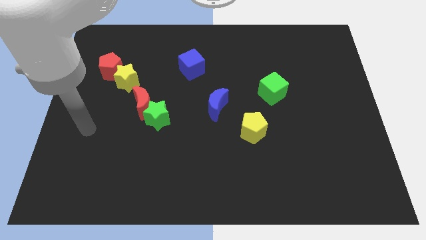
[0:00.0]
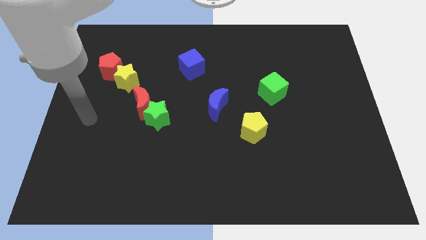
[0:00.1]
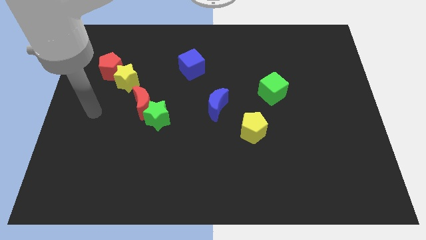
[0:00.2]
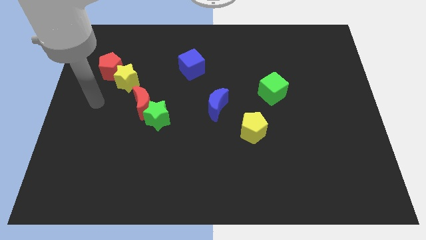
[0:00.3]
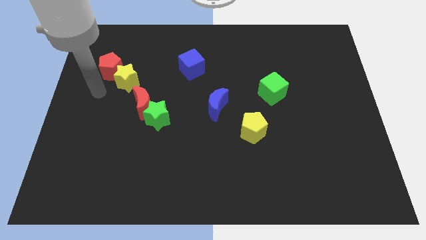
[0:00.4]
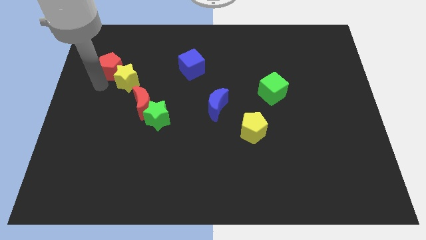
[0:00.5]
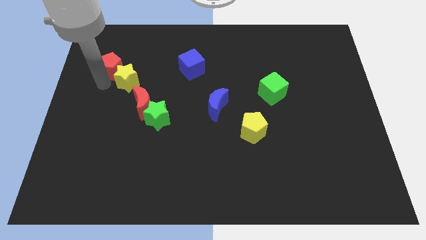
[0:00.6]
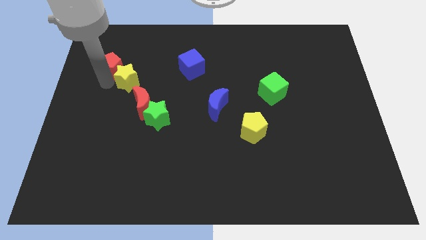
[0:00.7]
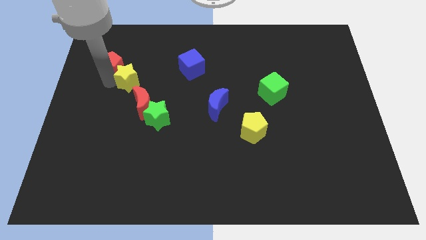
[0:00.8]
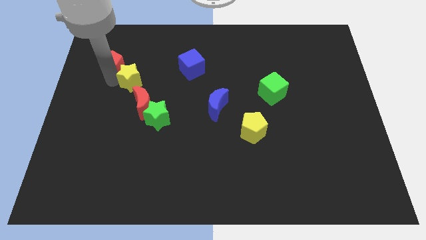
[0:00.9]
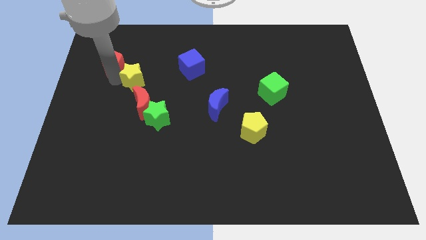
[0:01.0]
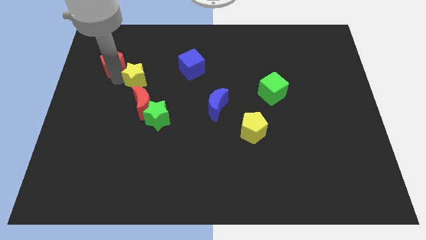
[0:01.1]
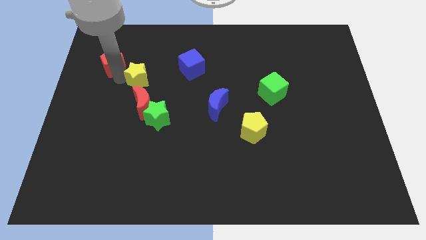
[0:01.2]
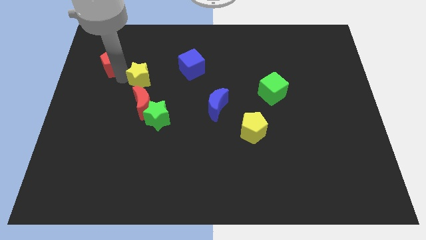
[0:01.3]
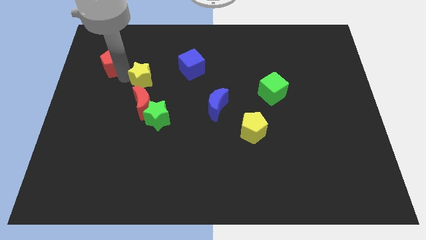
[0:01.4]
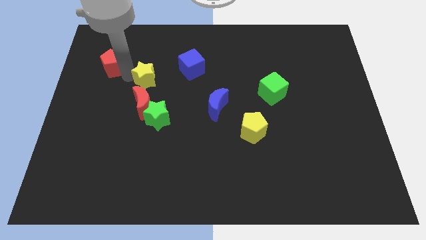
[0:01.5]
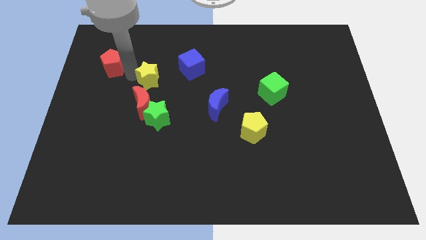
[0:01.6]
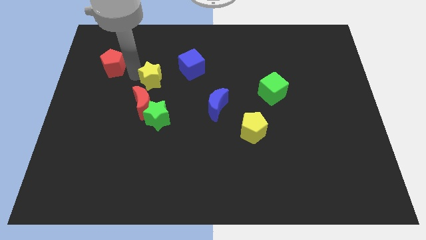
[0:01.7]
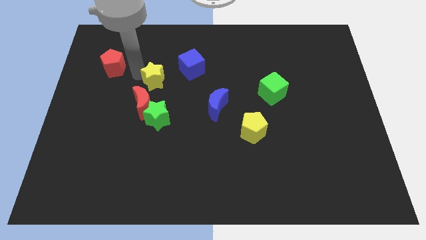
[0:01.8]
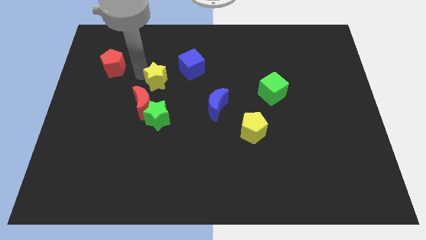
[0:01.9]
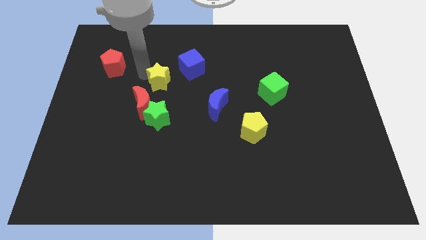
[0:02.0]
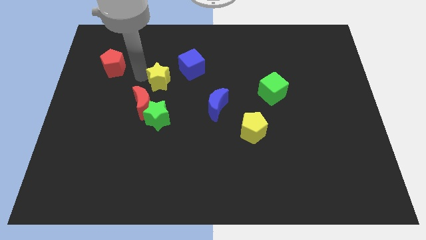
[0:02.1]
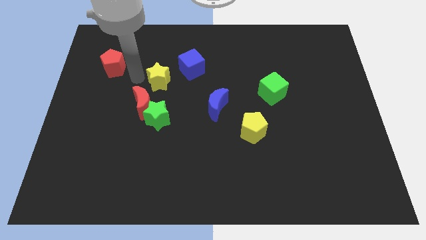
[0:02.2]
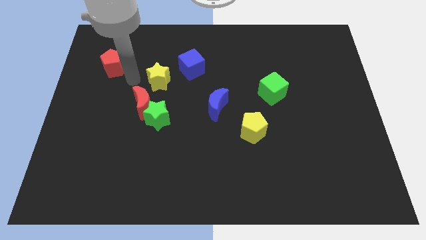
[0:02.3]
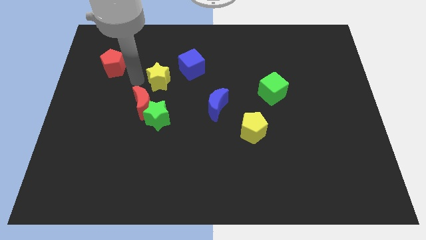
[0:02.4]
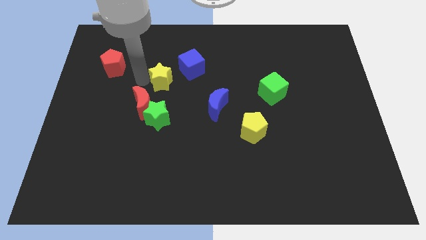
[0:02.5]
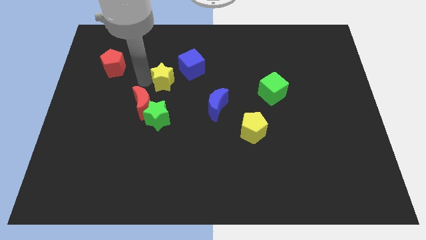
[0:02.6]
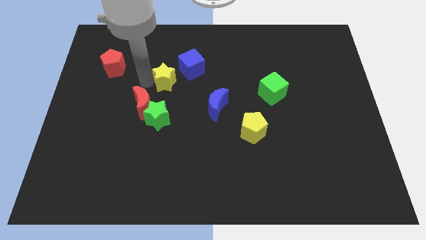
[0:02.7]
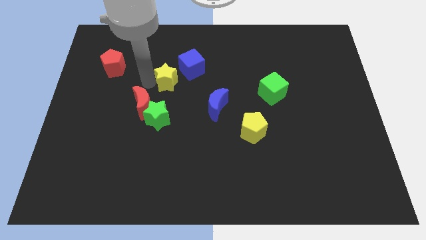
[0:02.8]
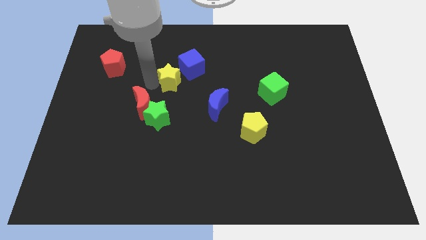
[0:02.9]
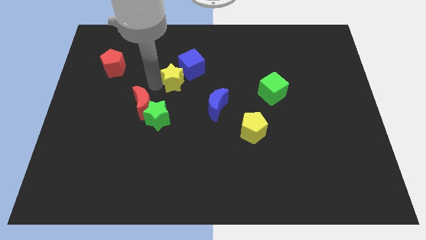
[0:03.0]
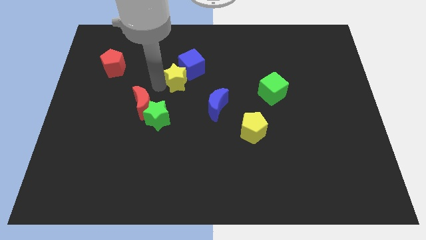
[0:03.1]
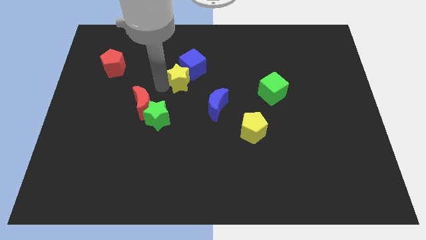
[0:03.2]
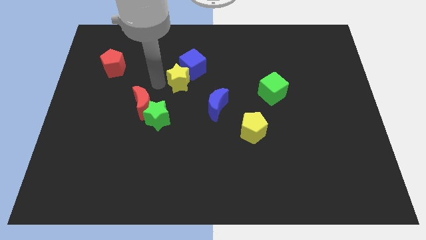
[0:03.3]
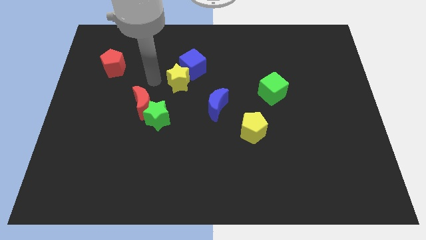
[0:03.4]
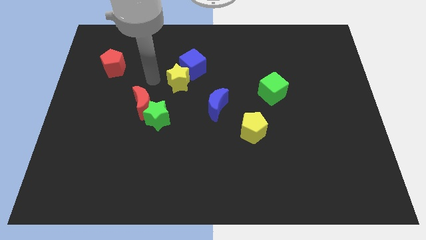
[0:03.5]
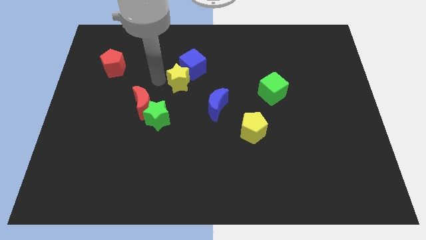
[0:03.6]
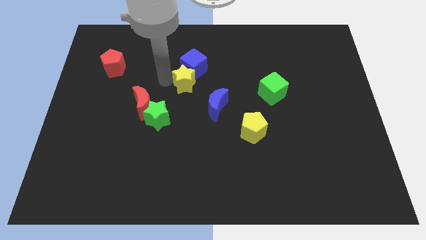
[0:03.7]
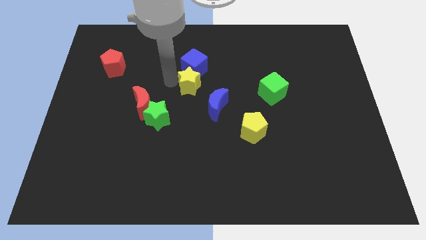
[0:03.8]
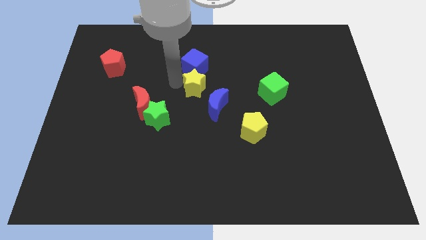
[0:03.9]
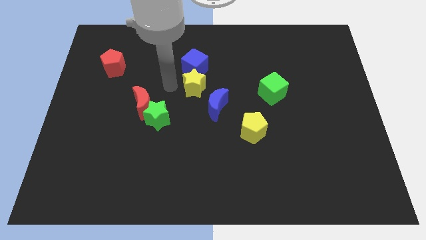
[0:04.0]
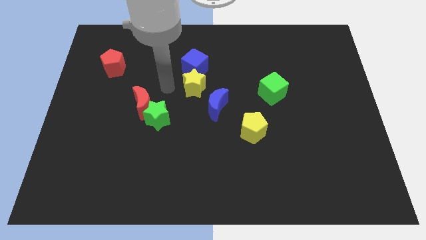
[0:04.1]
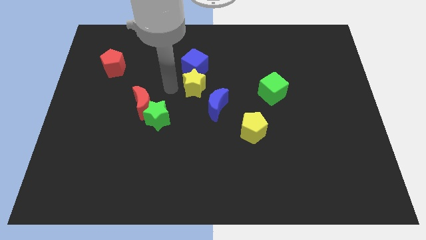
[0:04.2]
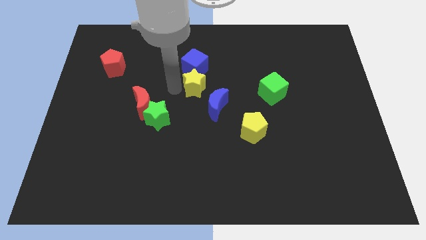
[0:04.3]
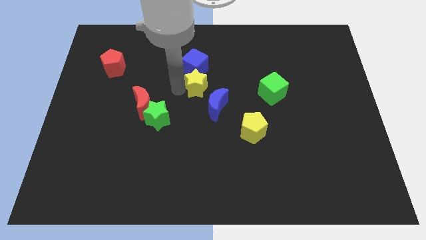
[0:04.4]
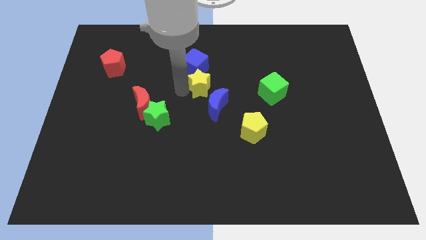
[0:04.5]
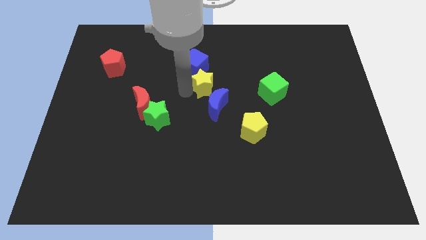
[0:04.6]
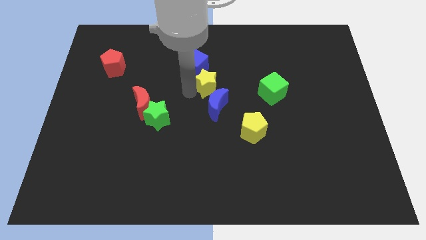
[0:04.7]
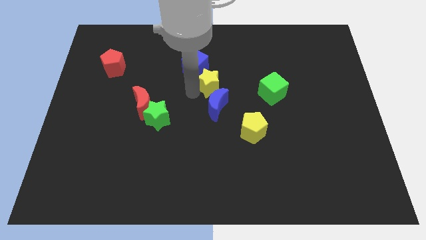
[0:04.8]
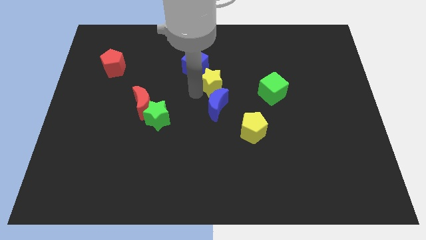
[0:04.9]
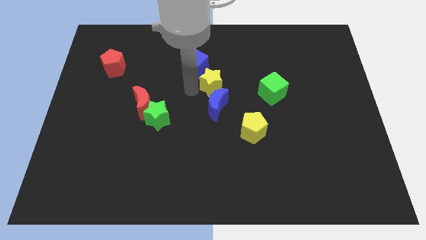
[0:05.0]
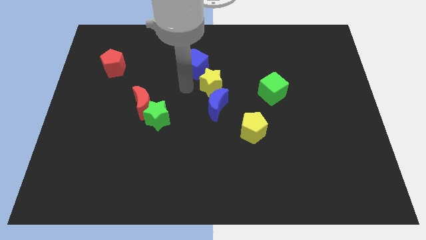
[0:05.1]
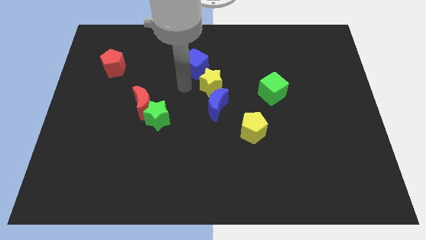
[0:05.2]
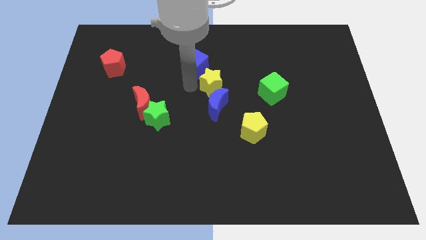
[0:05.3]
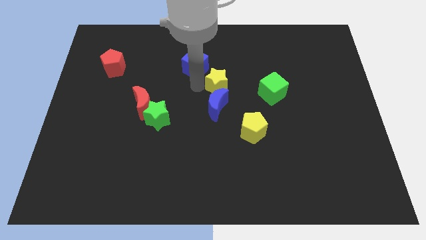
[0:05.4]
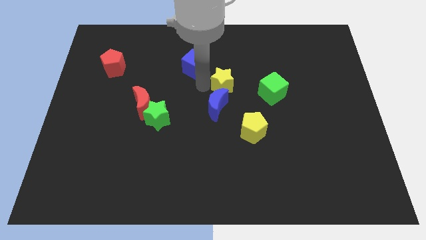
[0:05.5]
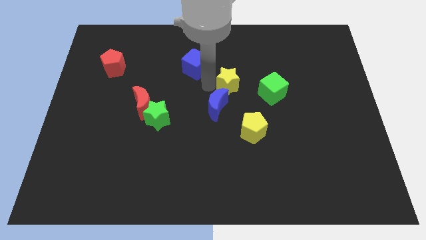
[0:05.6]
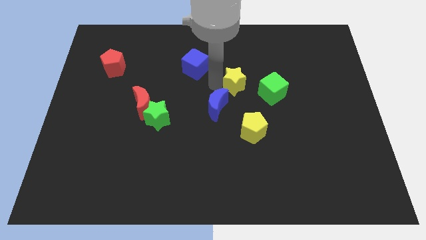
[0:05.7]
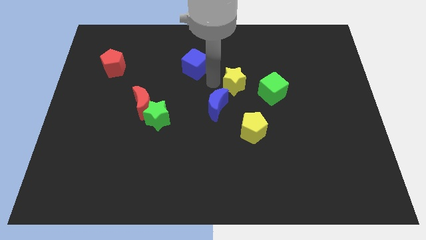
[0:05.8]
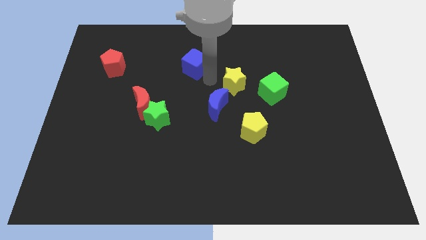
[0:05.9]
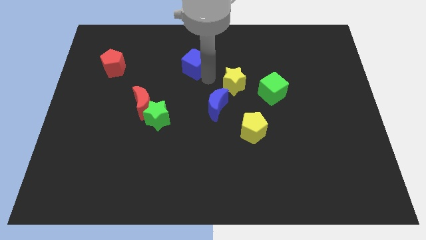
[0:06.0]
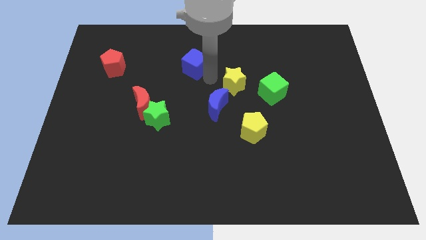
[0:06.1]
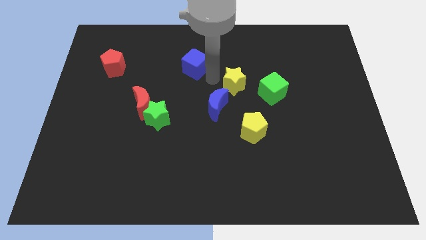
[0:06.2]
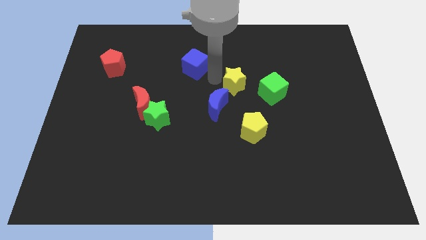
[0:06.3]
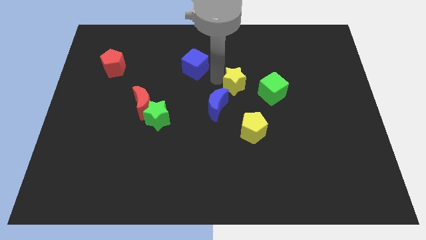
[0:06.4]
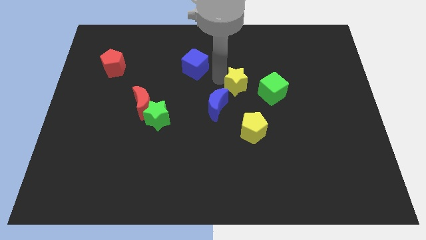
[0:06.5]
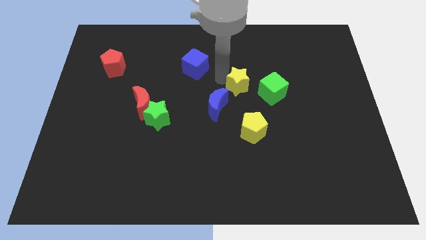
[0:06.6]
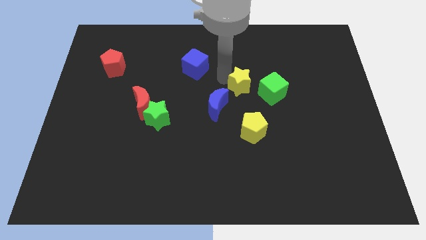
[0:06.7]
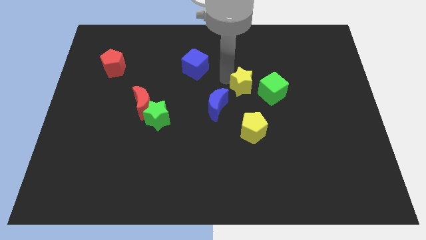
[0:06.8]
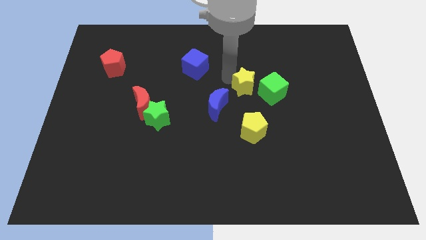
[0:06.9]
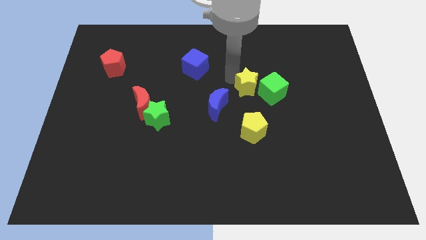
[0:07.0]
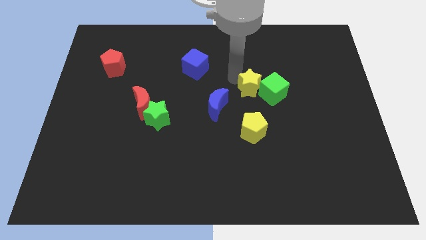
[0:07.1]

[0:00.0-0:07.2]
slide the yellow star towards the green cube
